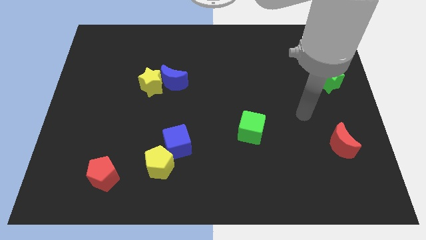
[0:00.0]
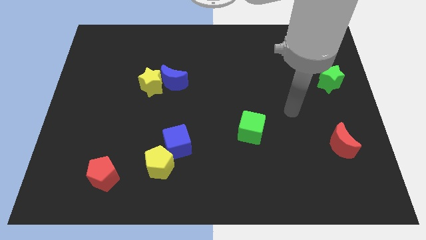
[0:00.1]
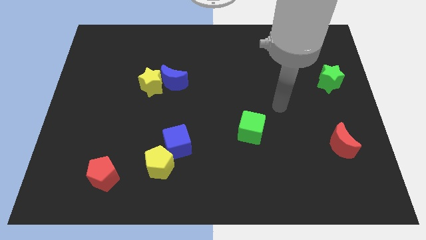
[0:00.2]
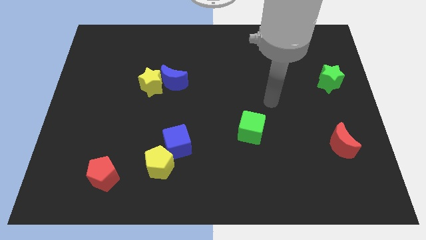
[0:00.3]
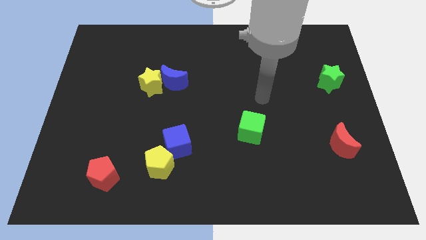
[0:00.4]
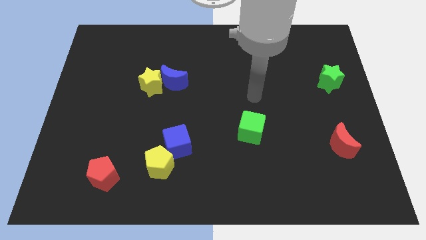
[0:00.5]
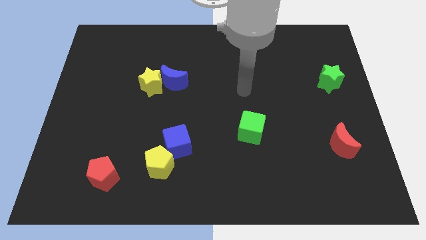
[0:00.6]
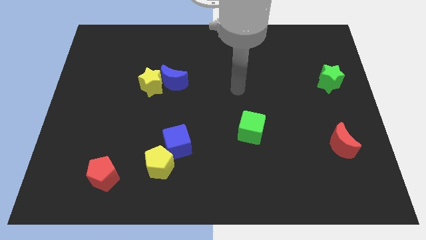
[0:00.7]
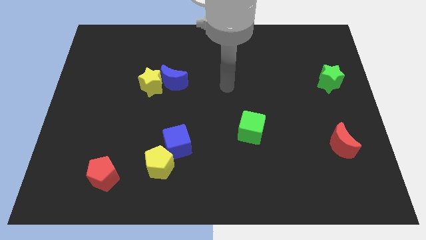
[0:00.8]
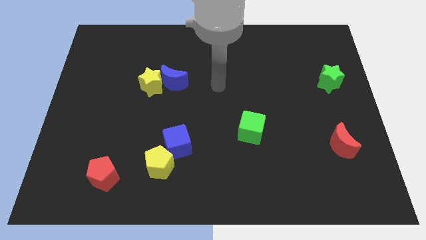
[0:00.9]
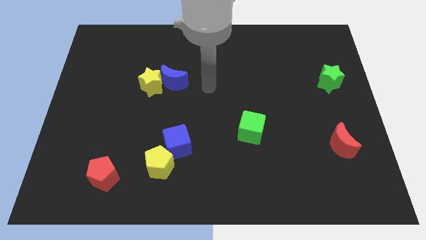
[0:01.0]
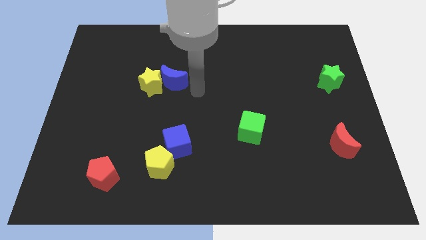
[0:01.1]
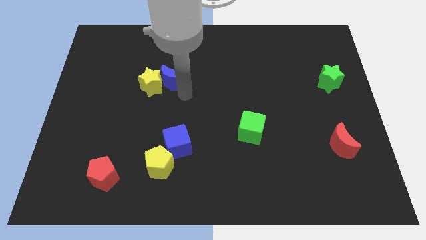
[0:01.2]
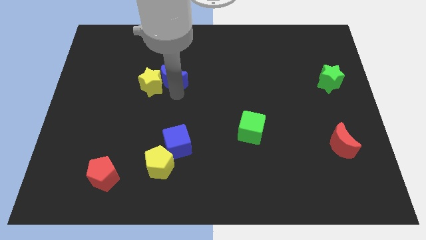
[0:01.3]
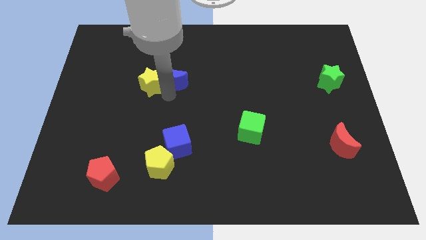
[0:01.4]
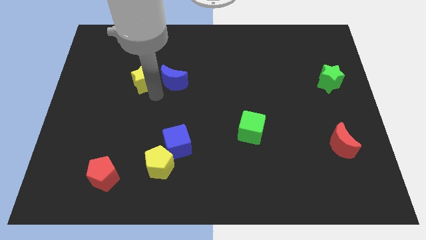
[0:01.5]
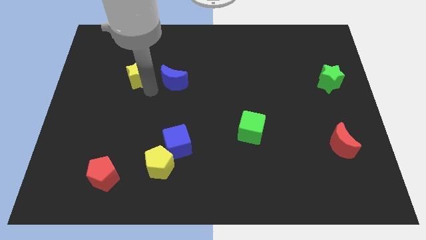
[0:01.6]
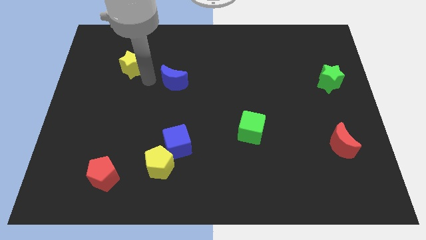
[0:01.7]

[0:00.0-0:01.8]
move the blue moon away from the yellow star

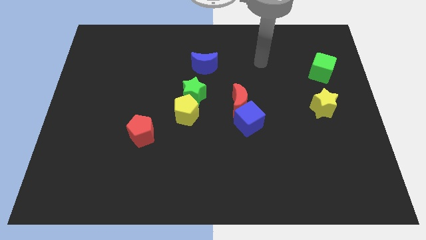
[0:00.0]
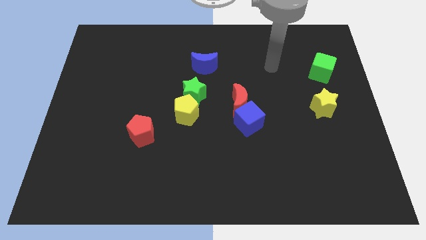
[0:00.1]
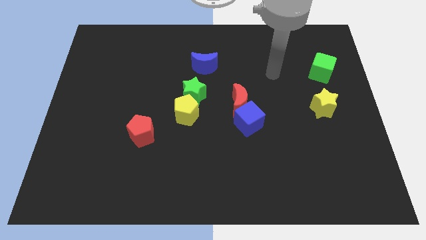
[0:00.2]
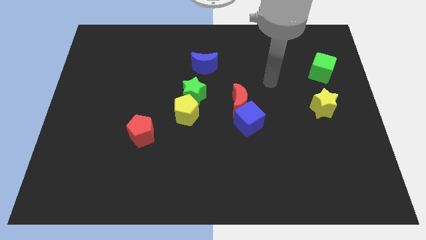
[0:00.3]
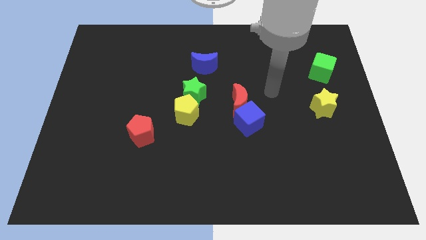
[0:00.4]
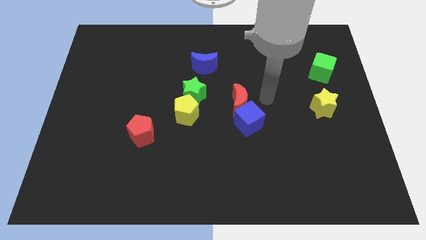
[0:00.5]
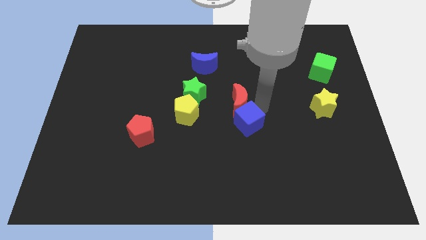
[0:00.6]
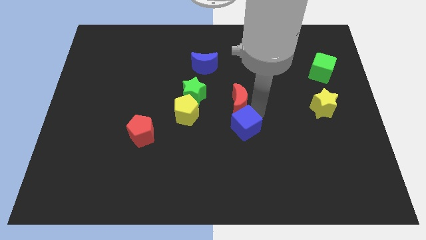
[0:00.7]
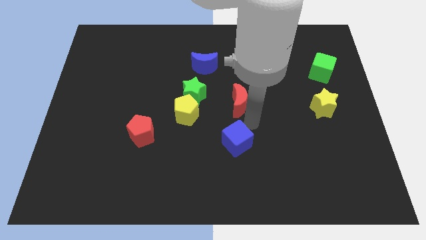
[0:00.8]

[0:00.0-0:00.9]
move the red moon away from the blue cube

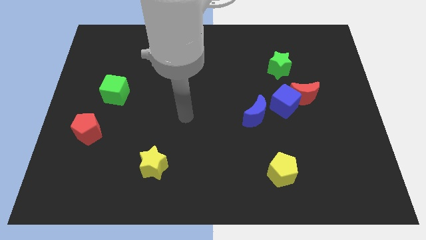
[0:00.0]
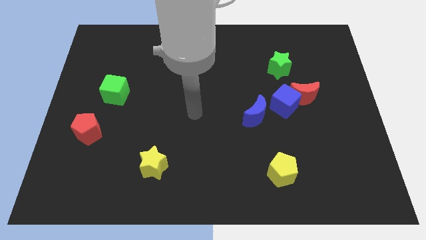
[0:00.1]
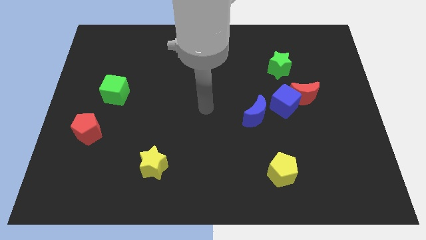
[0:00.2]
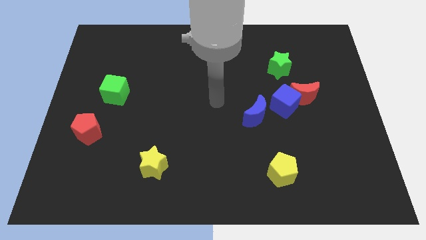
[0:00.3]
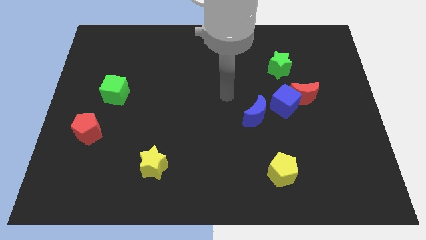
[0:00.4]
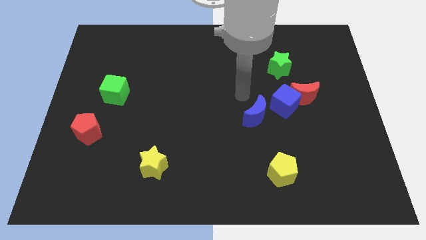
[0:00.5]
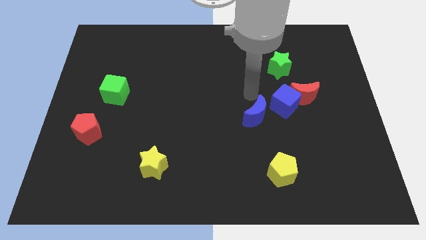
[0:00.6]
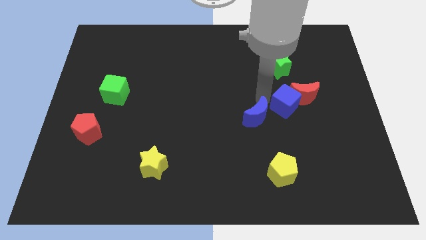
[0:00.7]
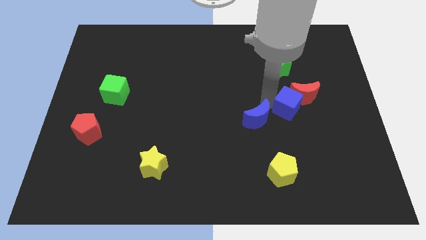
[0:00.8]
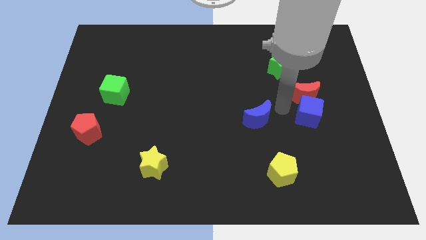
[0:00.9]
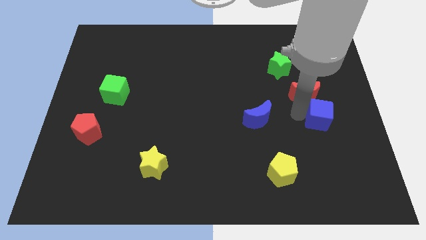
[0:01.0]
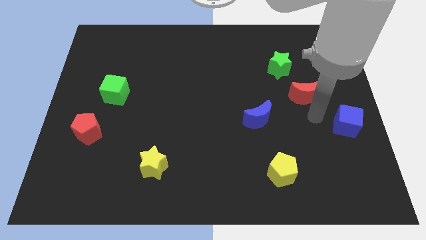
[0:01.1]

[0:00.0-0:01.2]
pull the red moon apart from the blue cube

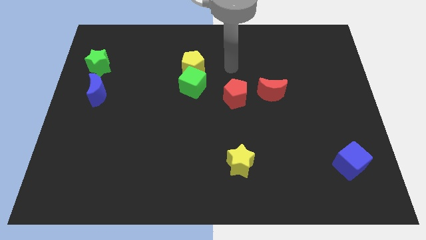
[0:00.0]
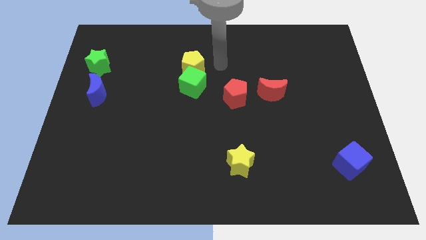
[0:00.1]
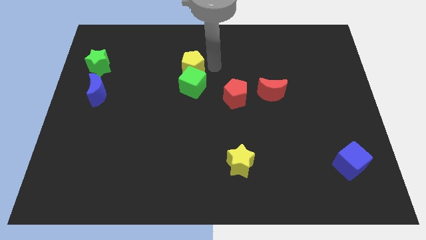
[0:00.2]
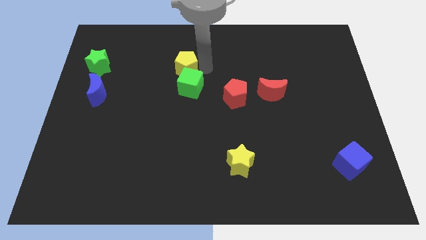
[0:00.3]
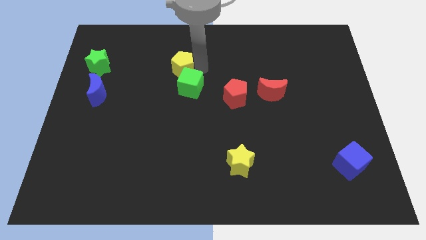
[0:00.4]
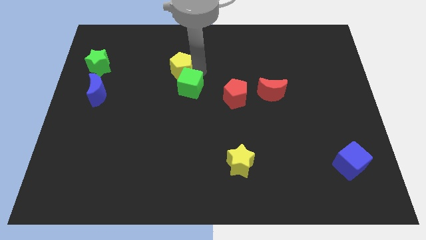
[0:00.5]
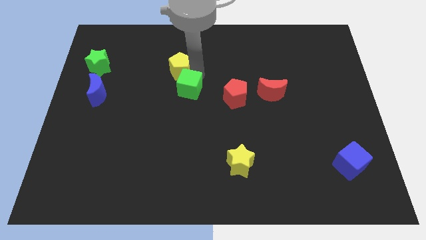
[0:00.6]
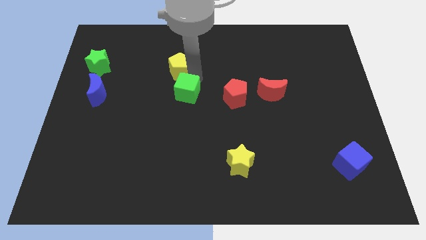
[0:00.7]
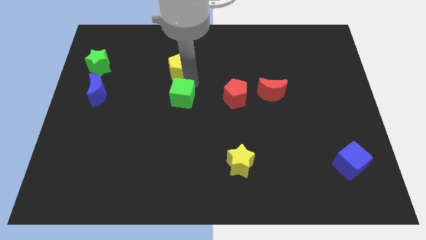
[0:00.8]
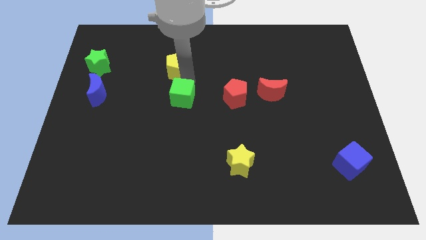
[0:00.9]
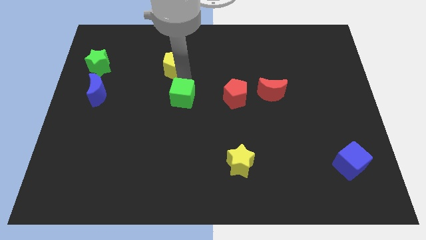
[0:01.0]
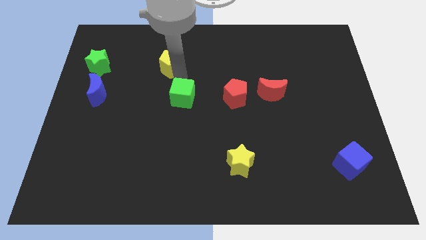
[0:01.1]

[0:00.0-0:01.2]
pull the green cube apart from the yellow pentagon

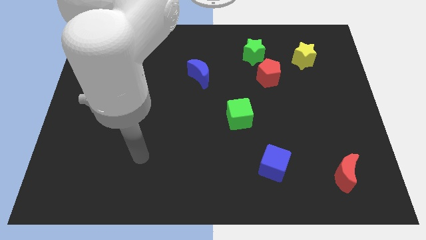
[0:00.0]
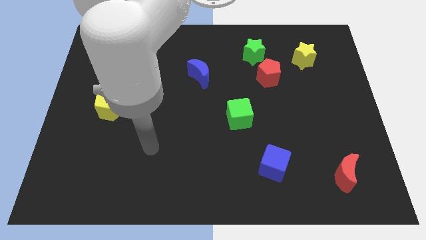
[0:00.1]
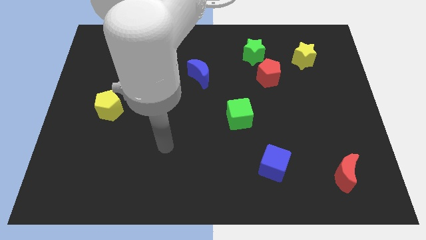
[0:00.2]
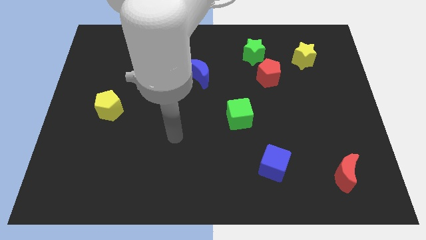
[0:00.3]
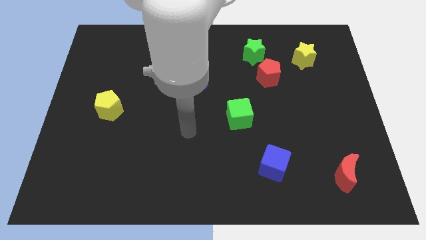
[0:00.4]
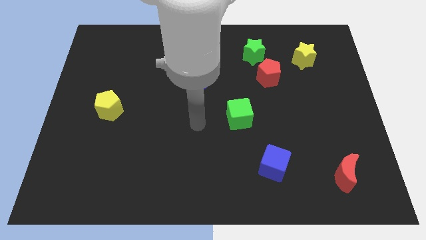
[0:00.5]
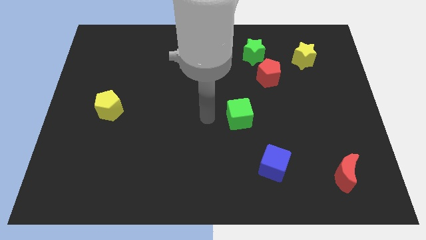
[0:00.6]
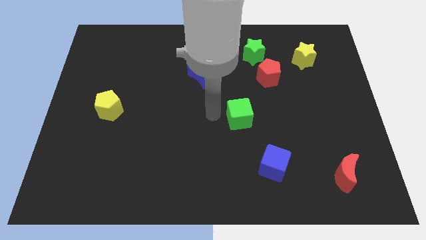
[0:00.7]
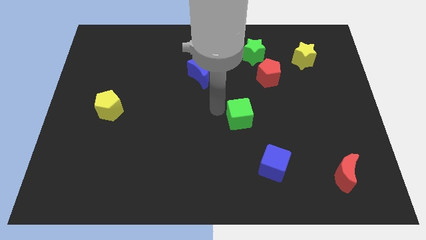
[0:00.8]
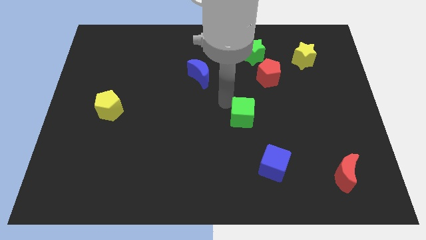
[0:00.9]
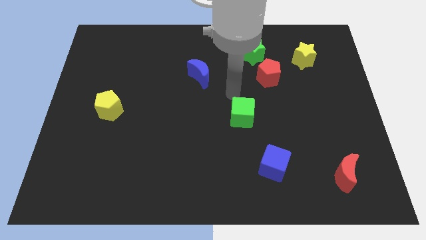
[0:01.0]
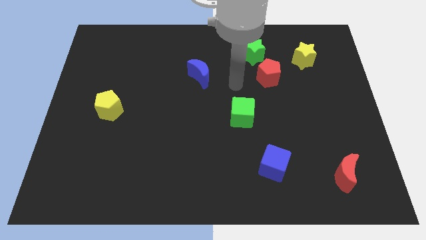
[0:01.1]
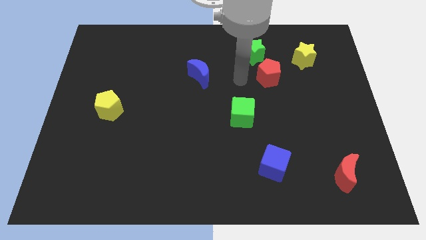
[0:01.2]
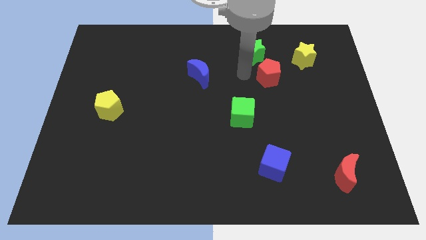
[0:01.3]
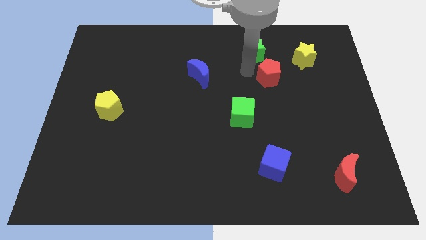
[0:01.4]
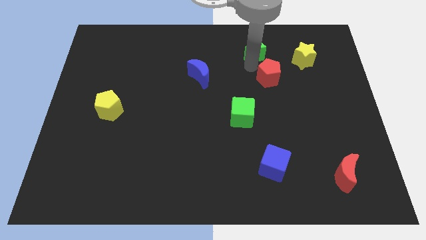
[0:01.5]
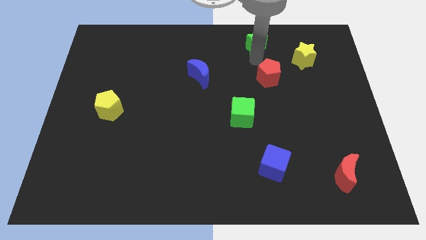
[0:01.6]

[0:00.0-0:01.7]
separate the red pentagon from the green star

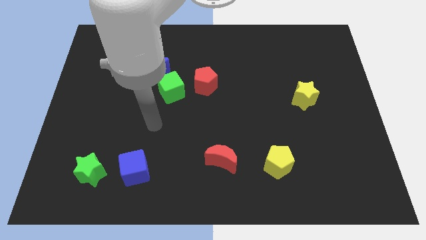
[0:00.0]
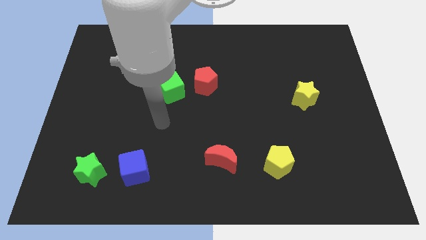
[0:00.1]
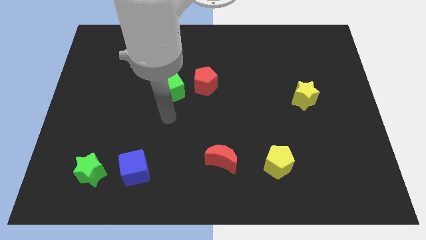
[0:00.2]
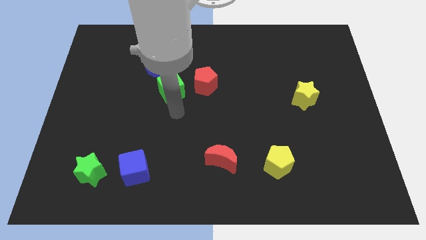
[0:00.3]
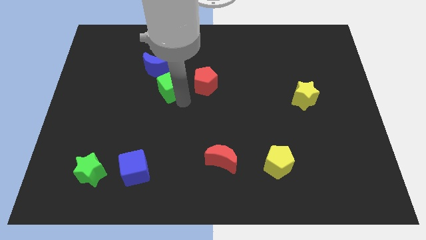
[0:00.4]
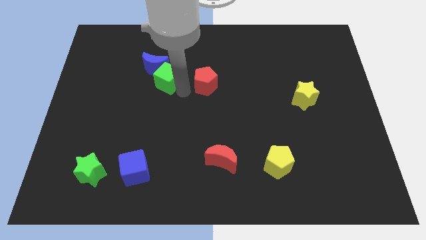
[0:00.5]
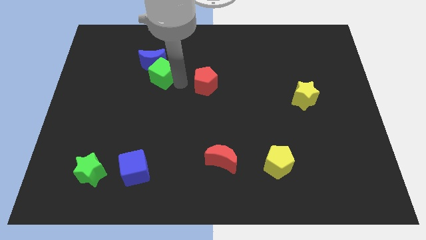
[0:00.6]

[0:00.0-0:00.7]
separate the red pentagon from the green cube

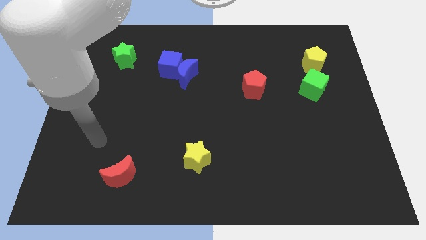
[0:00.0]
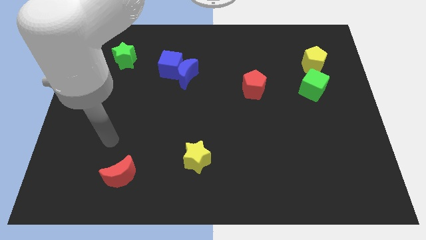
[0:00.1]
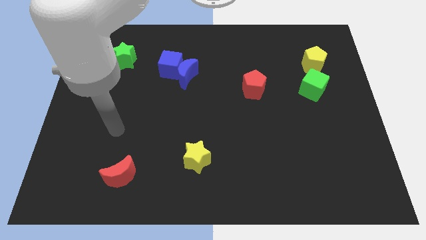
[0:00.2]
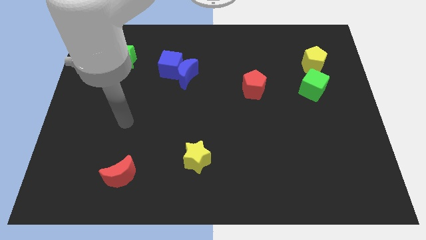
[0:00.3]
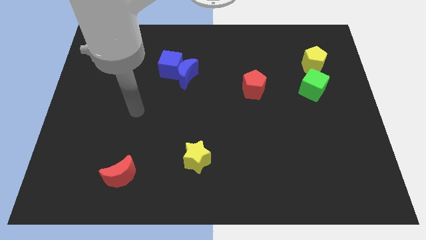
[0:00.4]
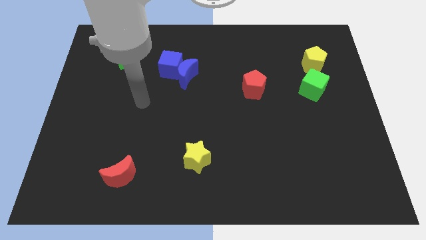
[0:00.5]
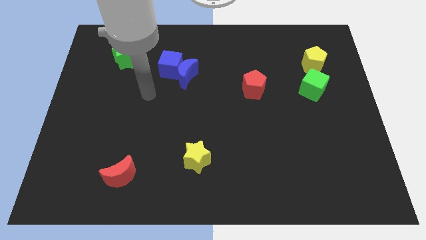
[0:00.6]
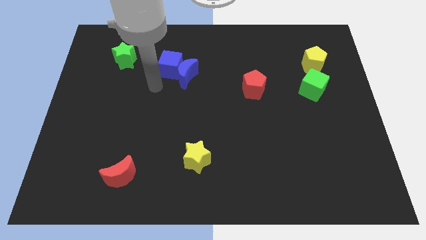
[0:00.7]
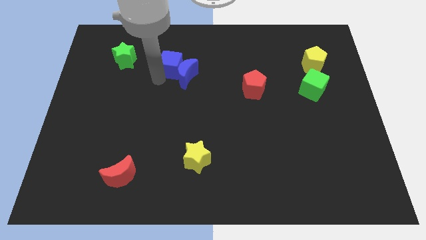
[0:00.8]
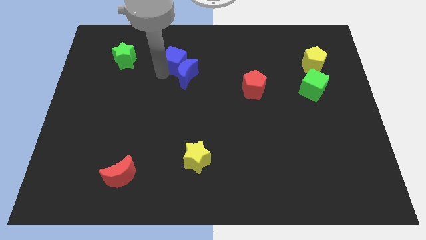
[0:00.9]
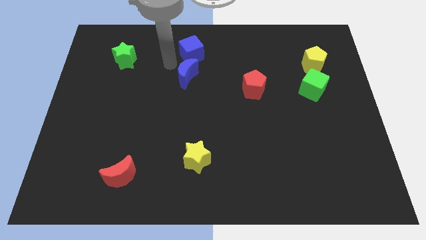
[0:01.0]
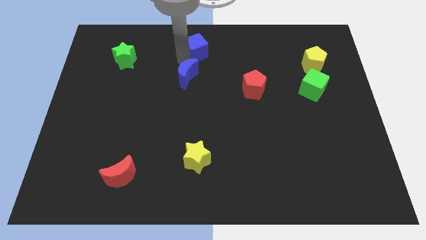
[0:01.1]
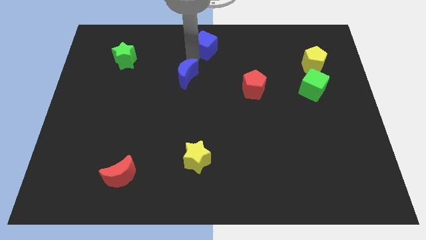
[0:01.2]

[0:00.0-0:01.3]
move the blue moon away from the blue cube

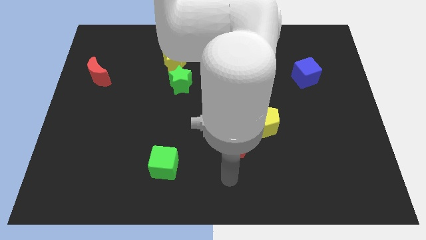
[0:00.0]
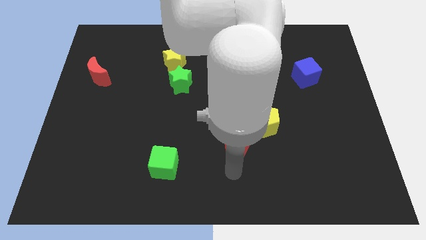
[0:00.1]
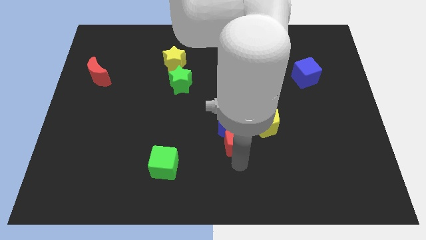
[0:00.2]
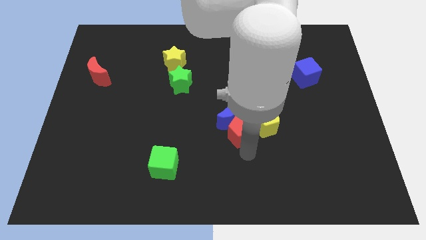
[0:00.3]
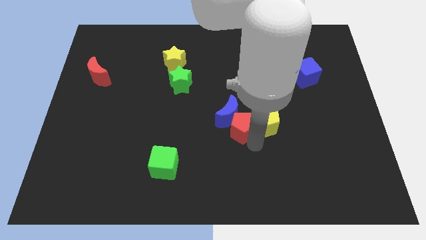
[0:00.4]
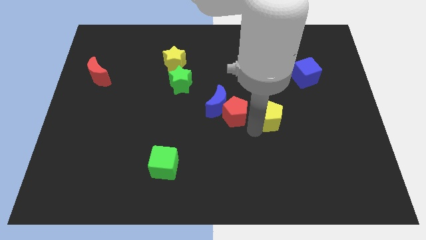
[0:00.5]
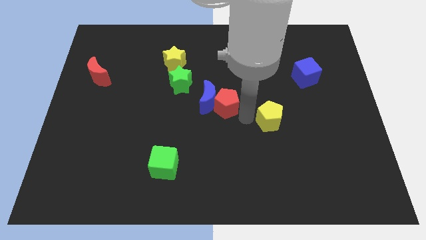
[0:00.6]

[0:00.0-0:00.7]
separate the blue moon from the red pentagon and yellow pentagon
